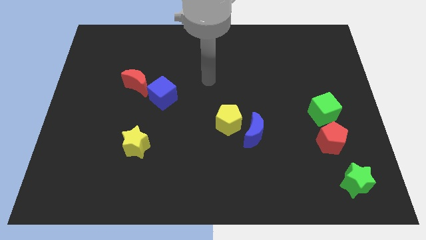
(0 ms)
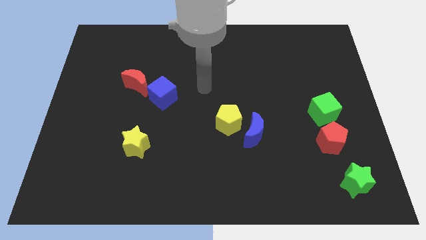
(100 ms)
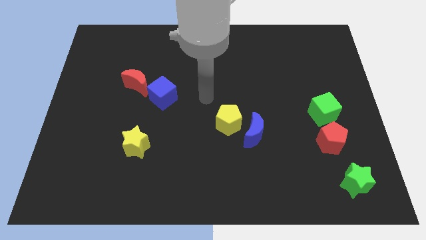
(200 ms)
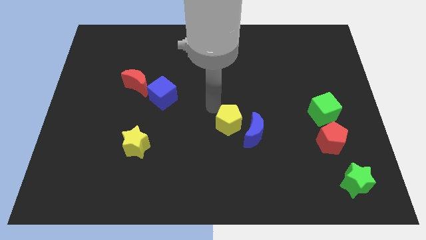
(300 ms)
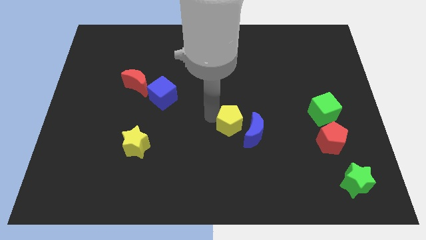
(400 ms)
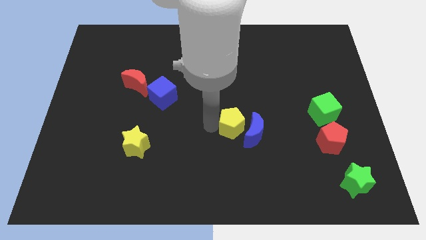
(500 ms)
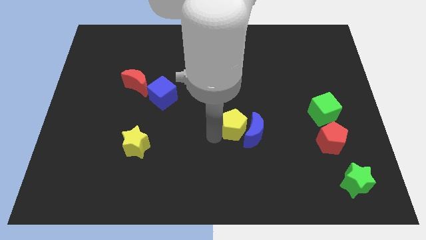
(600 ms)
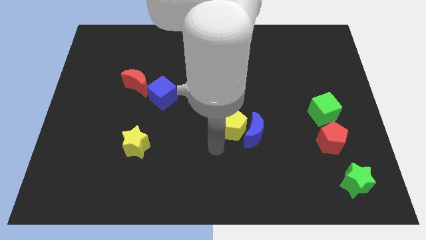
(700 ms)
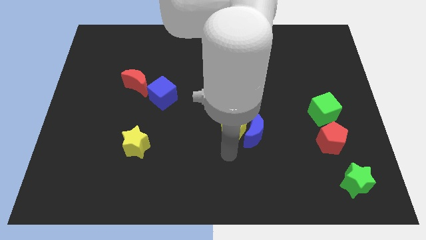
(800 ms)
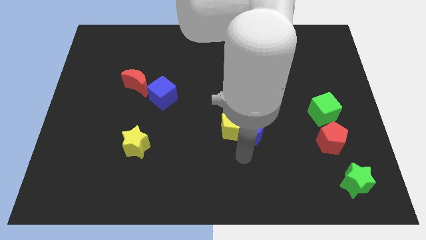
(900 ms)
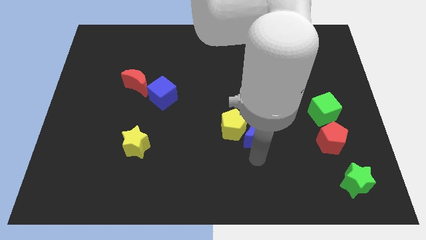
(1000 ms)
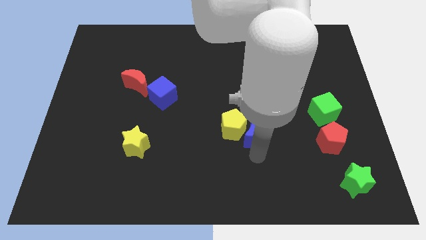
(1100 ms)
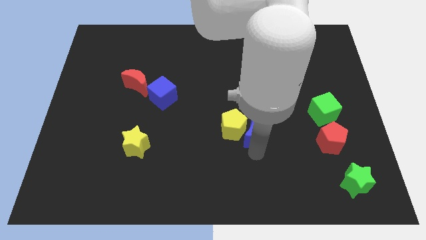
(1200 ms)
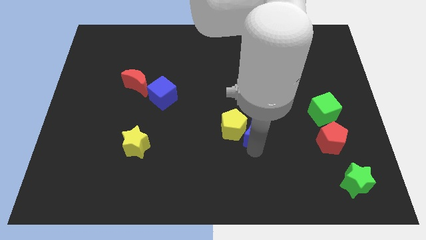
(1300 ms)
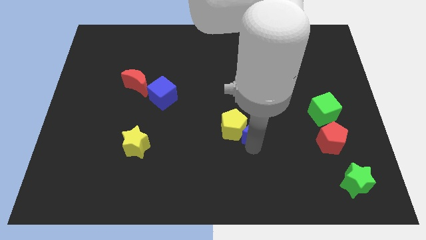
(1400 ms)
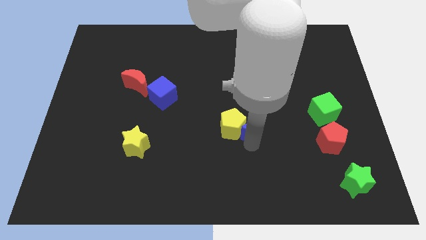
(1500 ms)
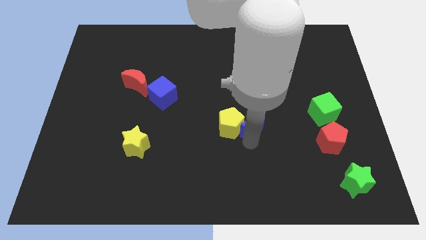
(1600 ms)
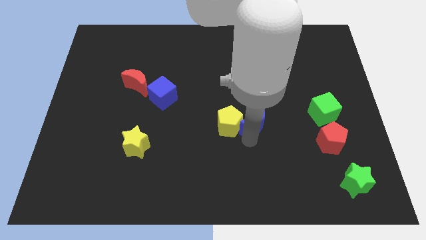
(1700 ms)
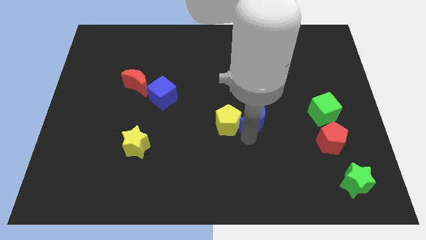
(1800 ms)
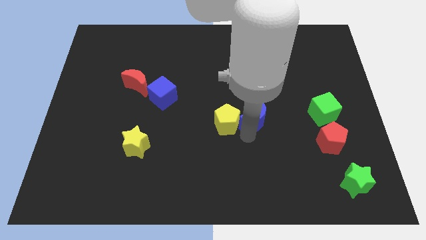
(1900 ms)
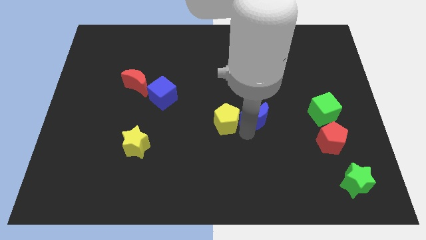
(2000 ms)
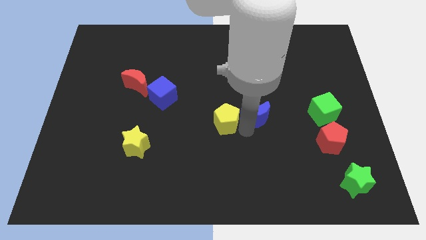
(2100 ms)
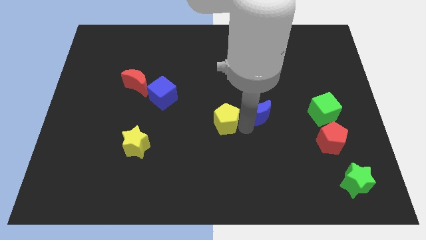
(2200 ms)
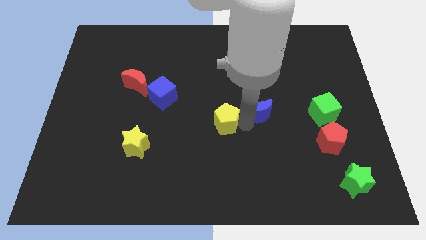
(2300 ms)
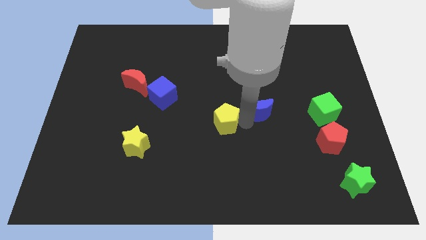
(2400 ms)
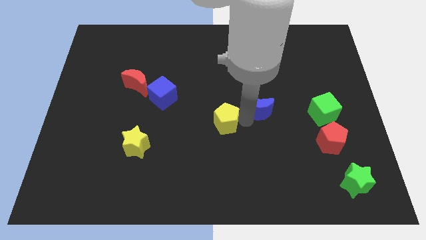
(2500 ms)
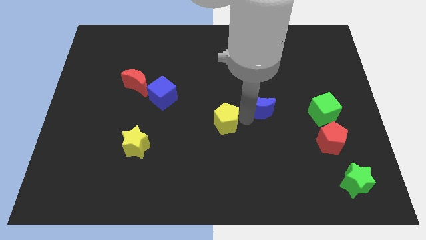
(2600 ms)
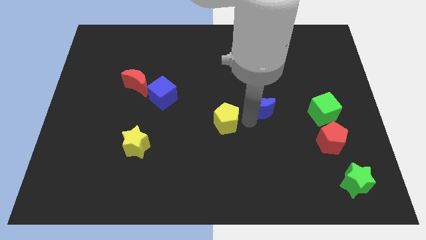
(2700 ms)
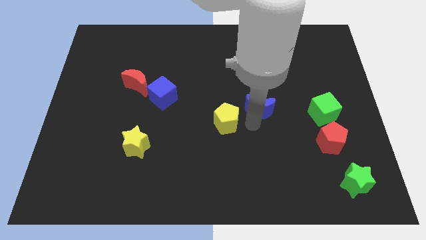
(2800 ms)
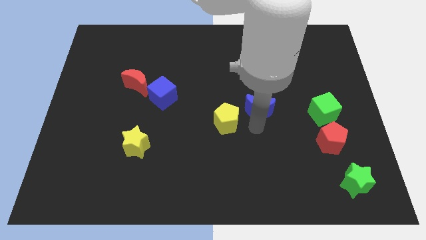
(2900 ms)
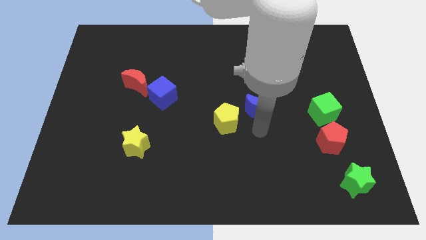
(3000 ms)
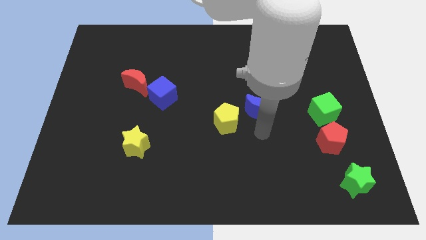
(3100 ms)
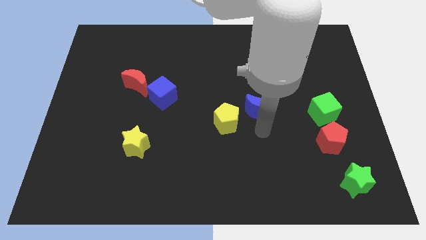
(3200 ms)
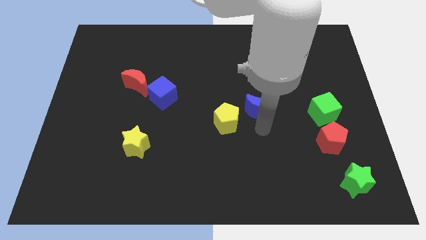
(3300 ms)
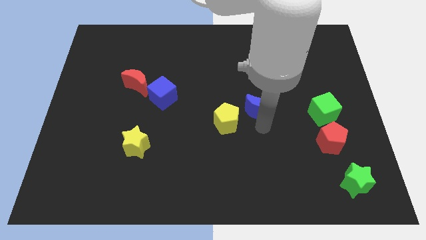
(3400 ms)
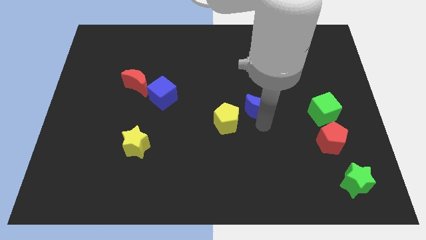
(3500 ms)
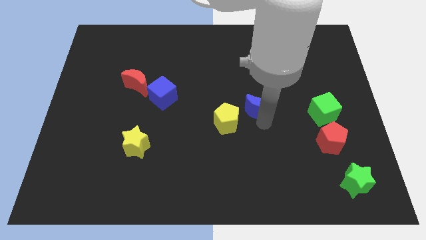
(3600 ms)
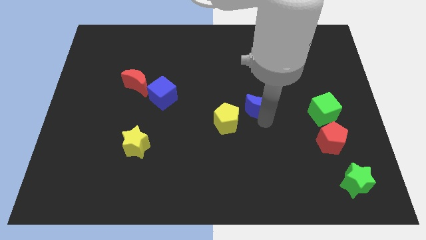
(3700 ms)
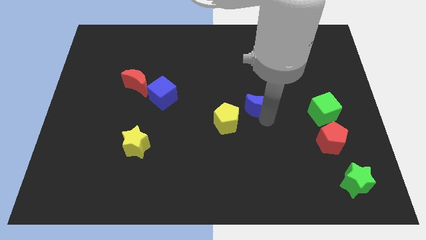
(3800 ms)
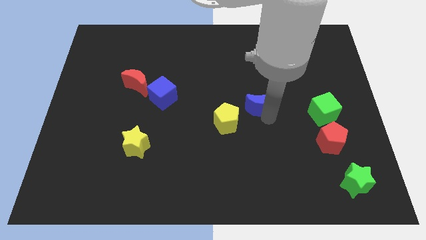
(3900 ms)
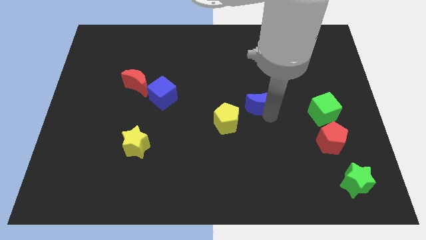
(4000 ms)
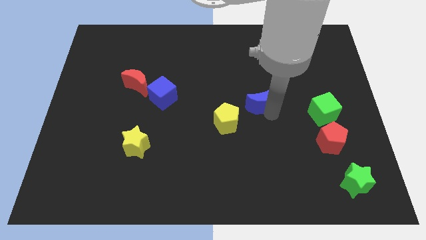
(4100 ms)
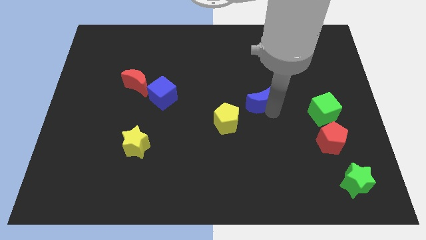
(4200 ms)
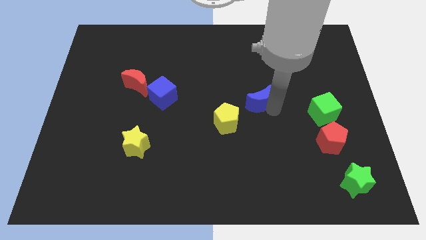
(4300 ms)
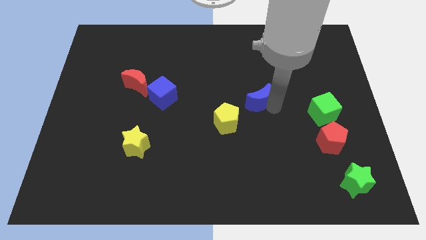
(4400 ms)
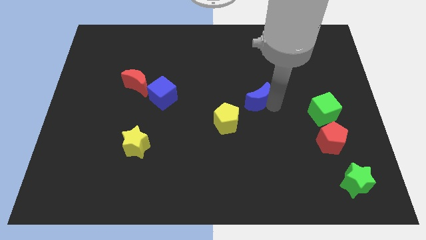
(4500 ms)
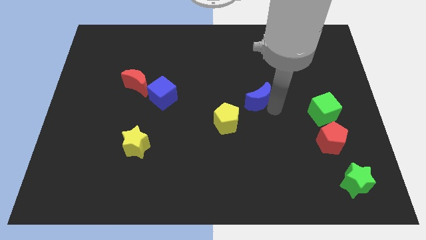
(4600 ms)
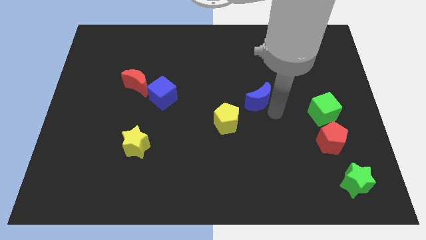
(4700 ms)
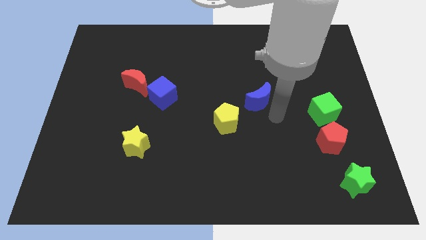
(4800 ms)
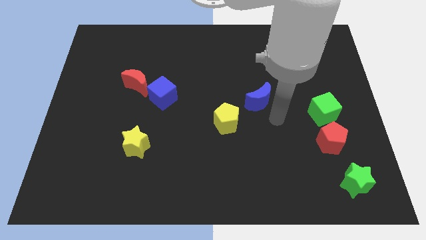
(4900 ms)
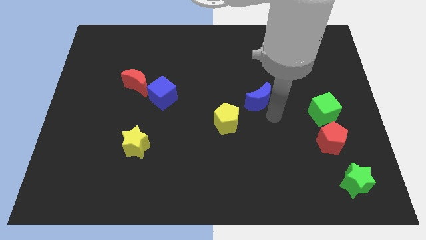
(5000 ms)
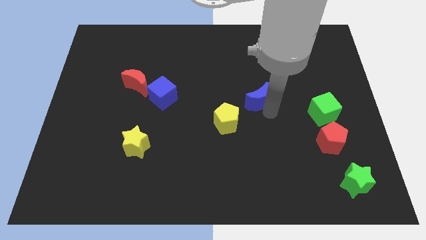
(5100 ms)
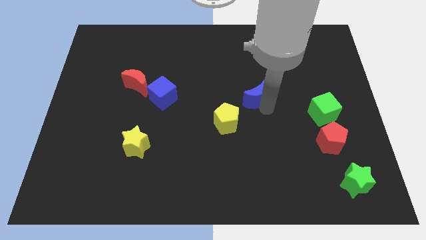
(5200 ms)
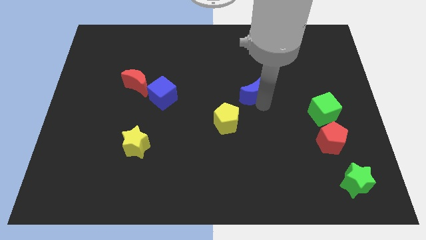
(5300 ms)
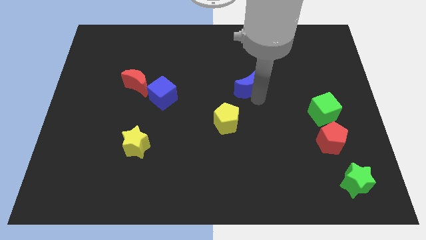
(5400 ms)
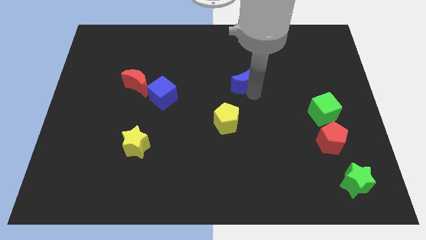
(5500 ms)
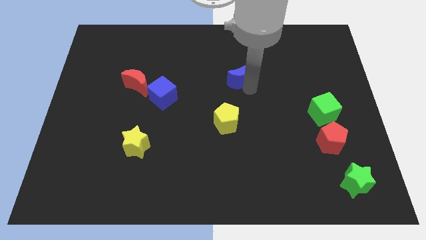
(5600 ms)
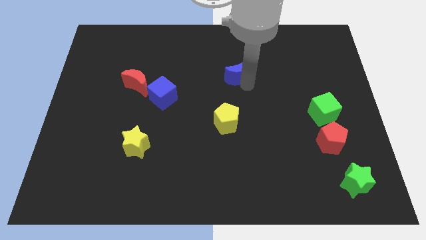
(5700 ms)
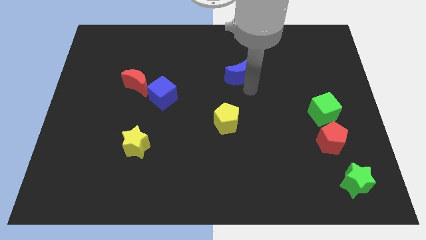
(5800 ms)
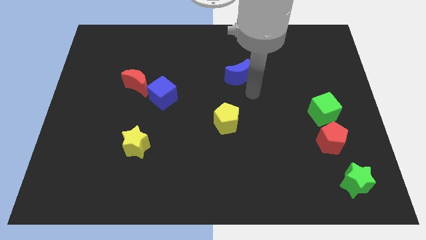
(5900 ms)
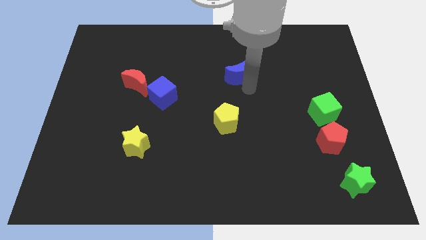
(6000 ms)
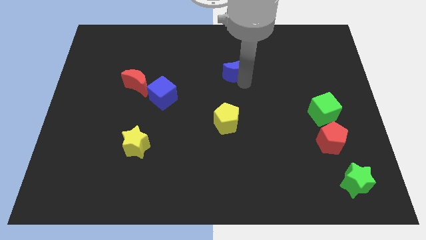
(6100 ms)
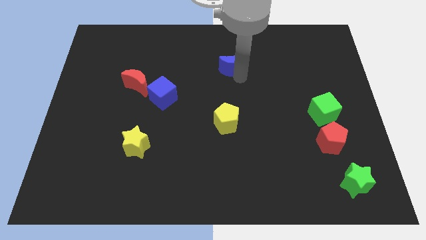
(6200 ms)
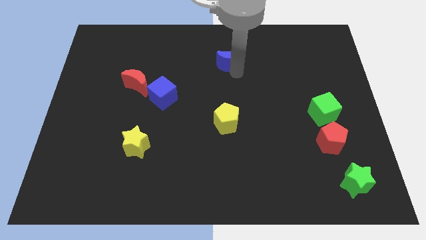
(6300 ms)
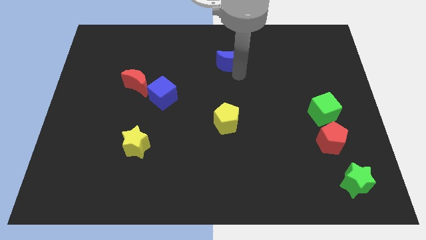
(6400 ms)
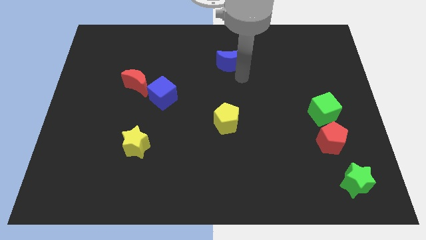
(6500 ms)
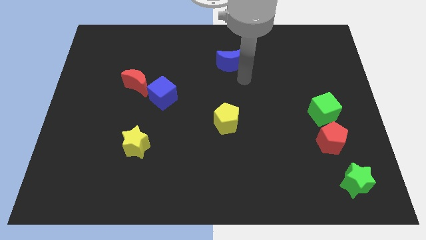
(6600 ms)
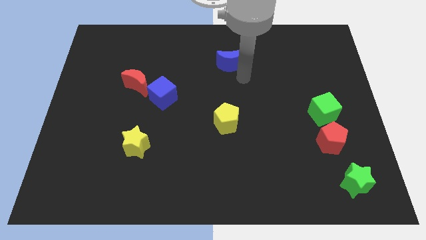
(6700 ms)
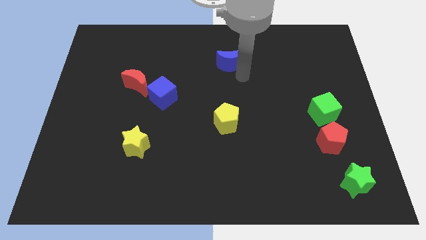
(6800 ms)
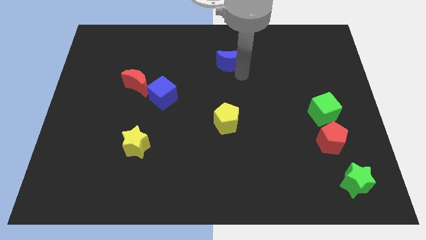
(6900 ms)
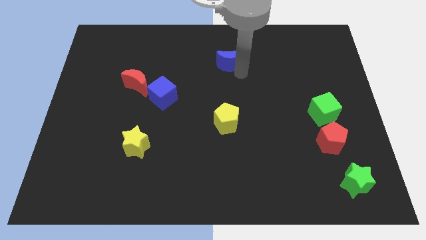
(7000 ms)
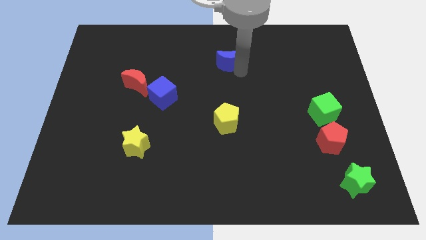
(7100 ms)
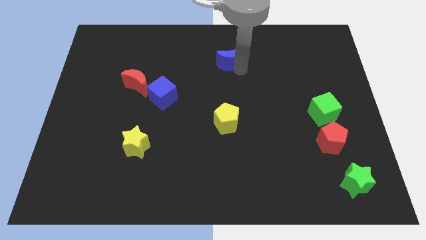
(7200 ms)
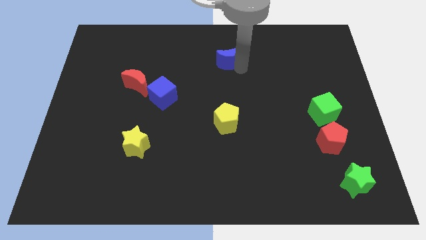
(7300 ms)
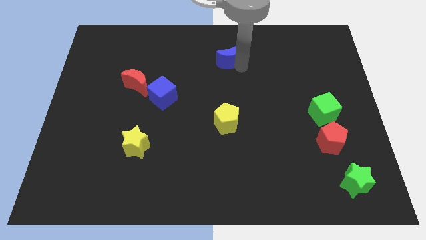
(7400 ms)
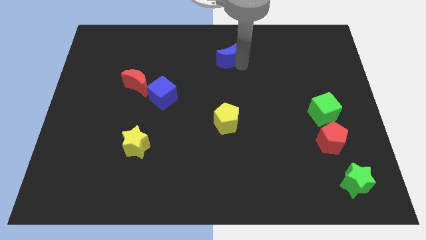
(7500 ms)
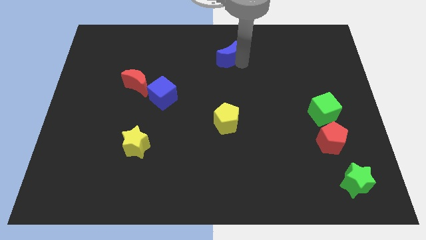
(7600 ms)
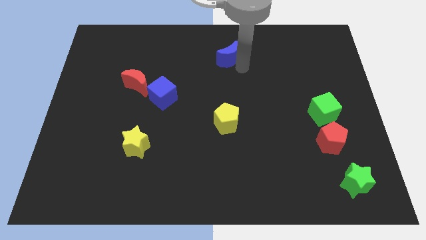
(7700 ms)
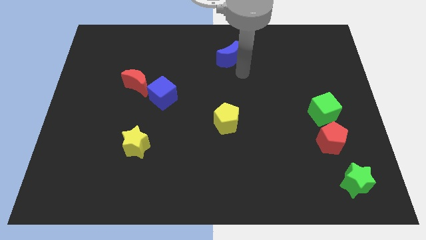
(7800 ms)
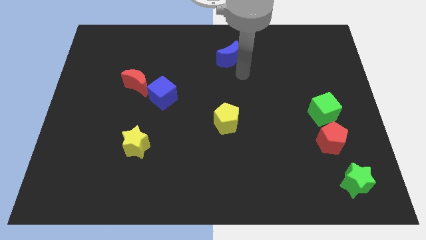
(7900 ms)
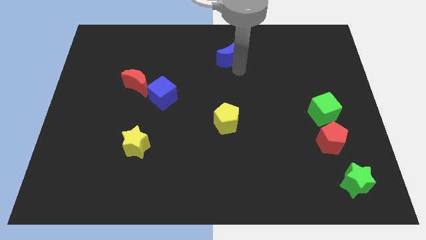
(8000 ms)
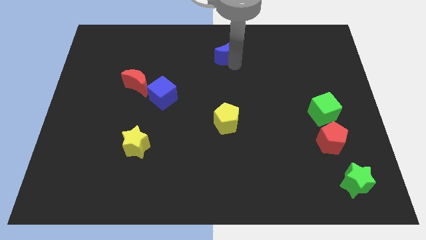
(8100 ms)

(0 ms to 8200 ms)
push the blue moon to the towards your base
